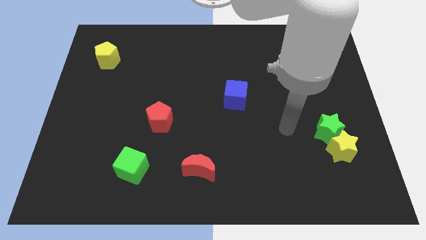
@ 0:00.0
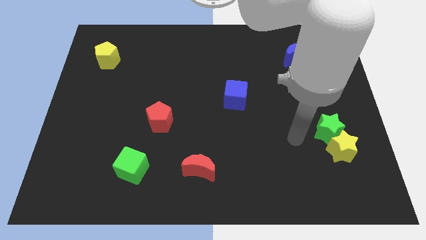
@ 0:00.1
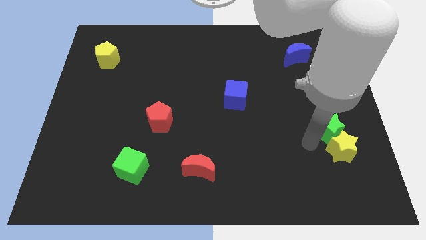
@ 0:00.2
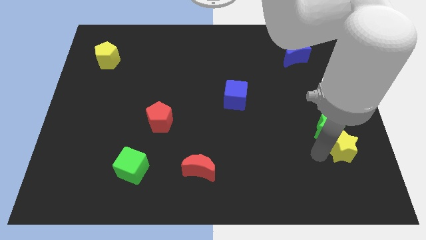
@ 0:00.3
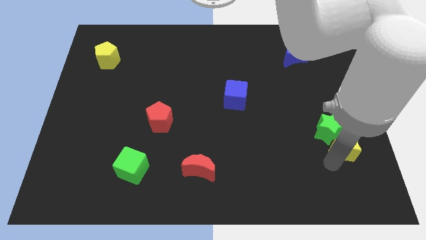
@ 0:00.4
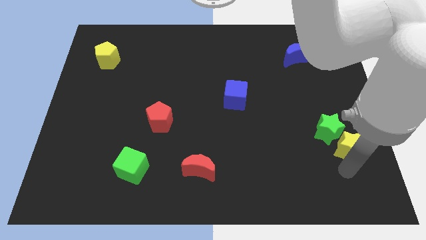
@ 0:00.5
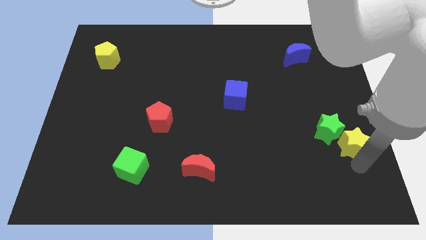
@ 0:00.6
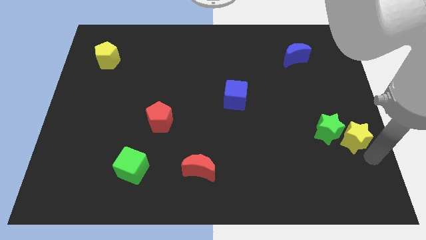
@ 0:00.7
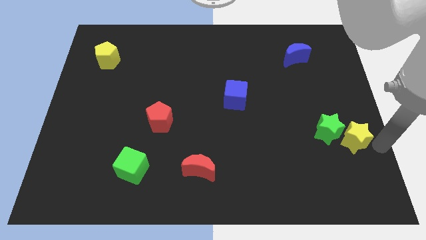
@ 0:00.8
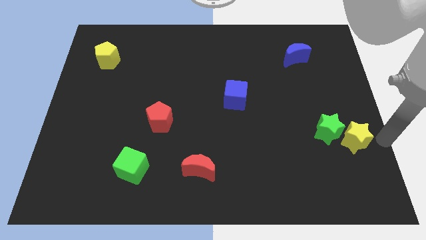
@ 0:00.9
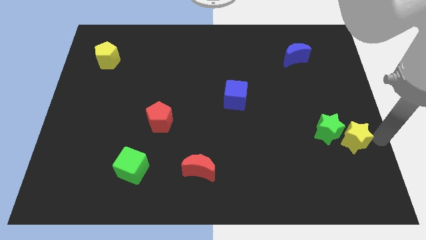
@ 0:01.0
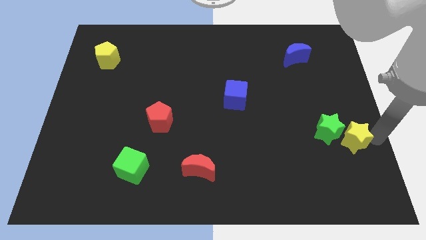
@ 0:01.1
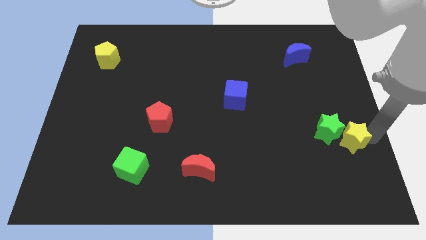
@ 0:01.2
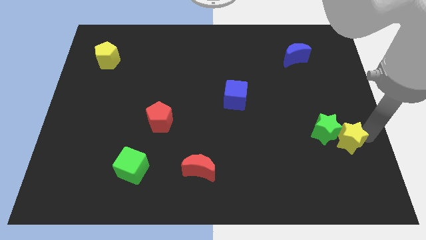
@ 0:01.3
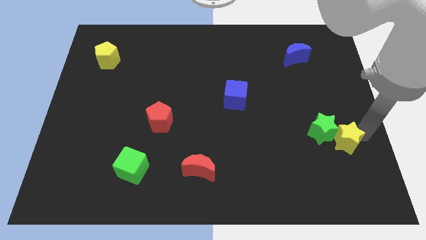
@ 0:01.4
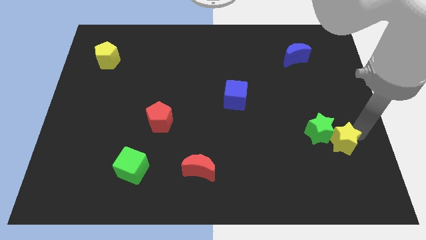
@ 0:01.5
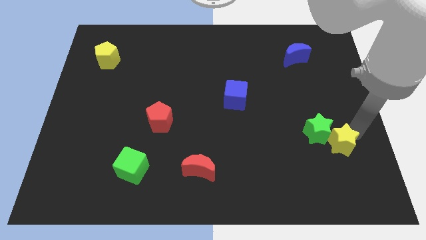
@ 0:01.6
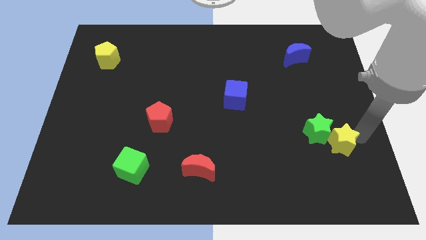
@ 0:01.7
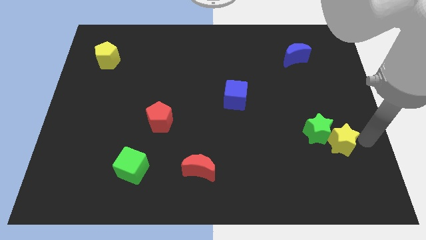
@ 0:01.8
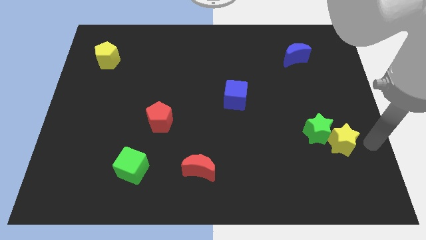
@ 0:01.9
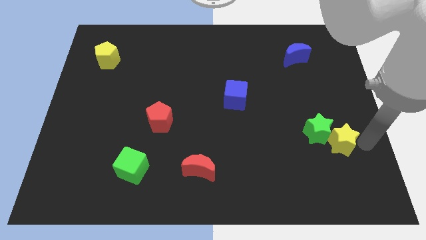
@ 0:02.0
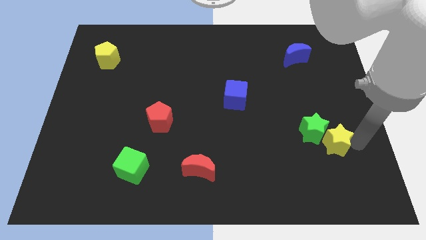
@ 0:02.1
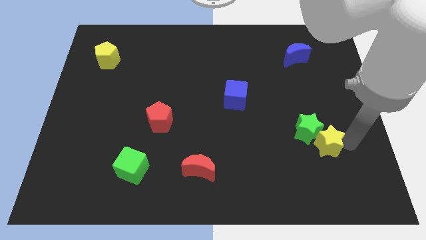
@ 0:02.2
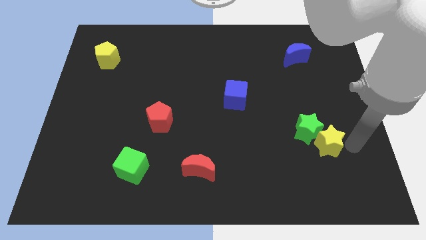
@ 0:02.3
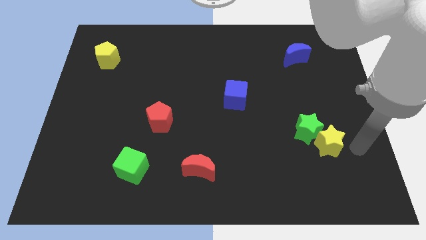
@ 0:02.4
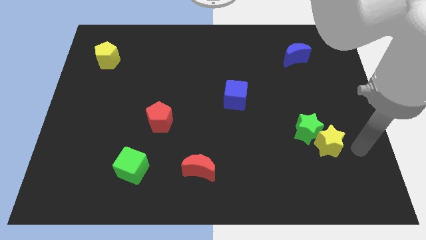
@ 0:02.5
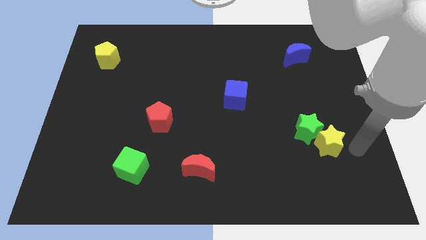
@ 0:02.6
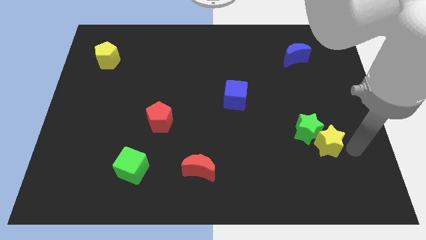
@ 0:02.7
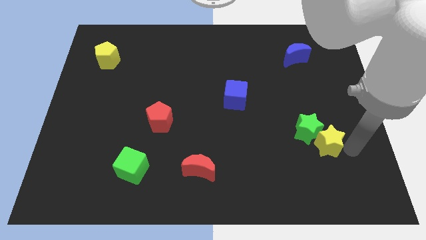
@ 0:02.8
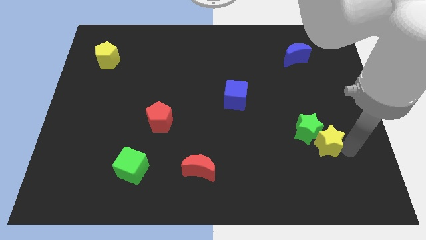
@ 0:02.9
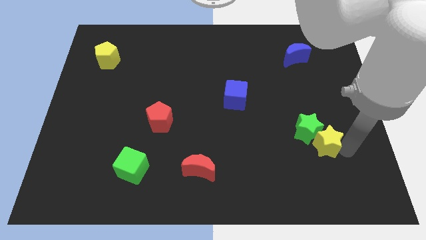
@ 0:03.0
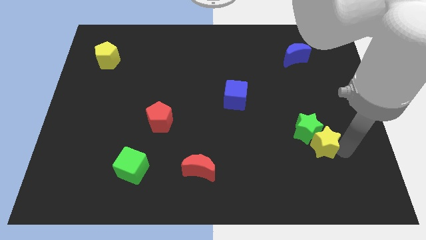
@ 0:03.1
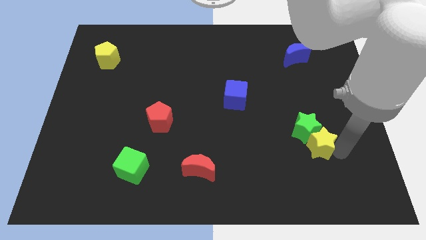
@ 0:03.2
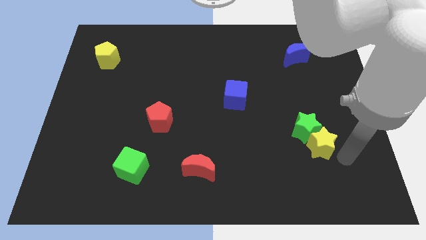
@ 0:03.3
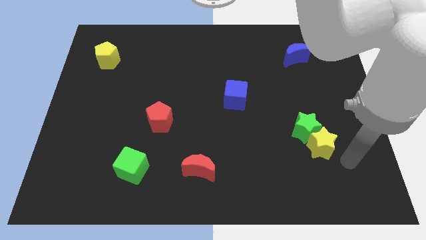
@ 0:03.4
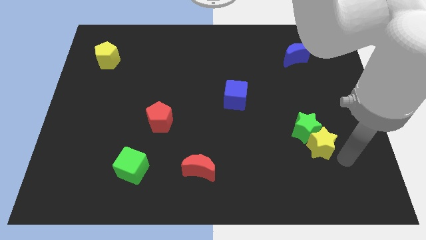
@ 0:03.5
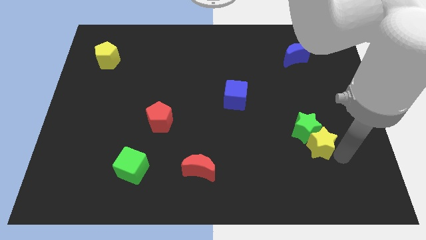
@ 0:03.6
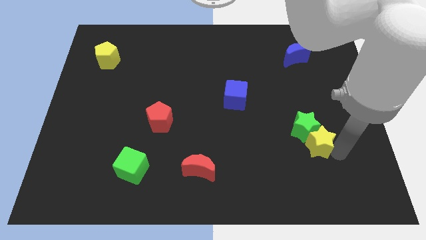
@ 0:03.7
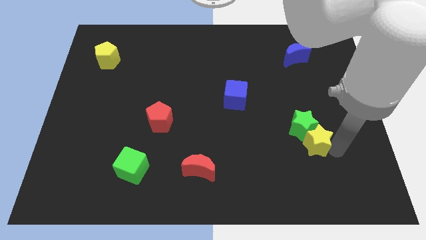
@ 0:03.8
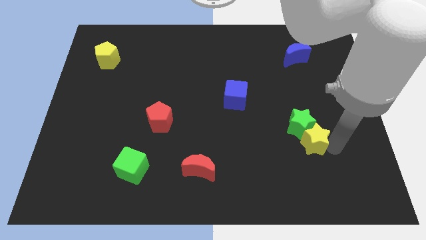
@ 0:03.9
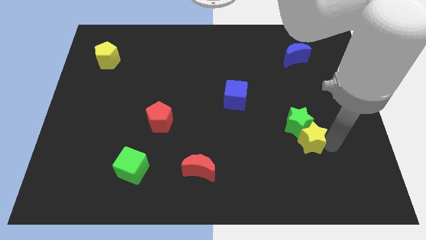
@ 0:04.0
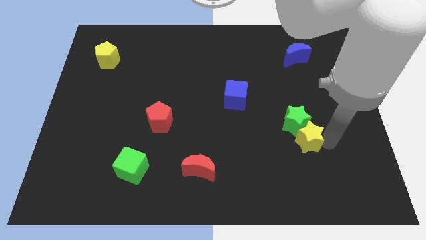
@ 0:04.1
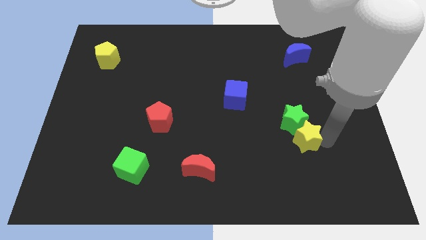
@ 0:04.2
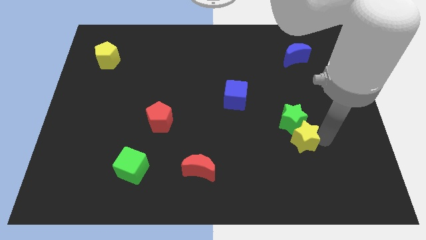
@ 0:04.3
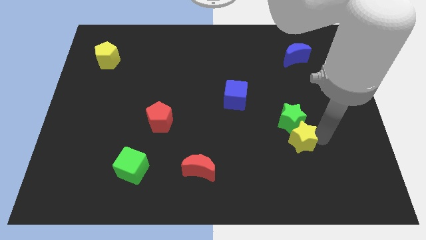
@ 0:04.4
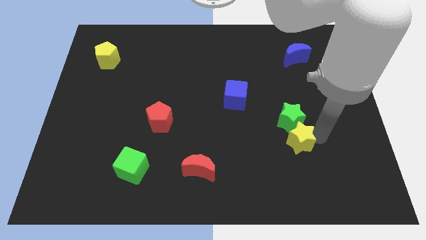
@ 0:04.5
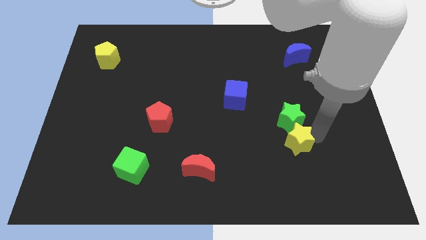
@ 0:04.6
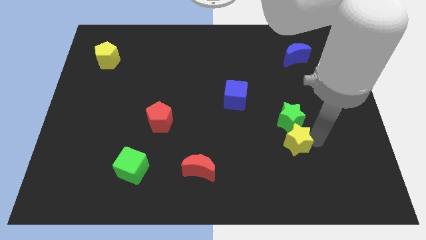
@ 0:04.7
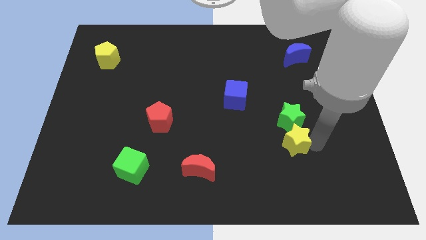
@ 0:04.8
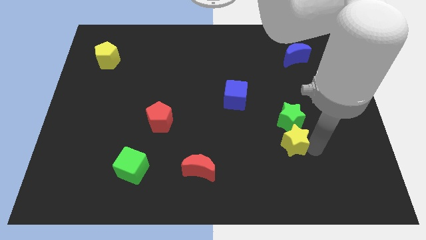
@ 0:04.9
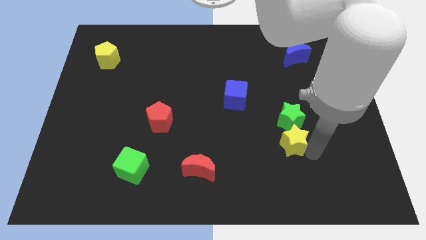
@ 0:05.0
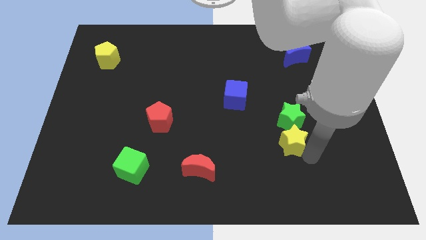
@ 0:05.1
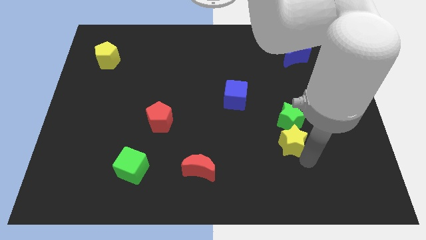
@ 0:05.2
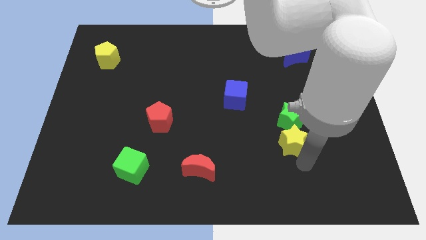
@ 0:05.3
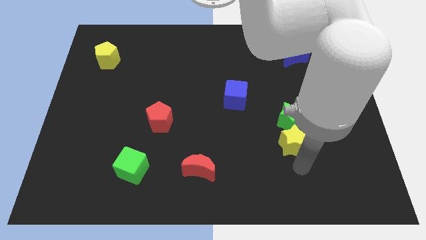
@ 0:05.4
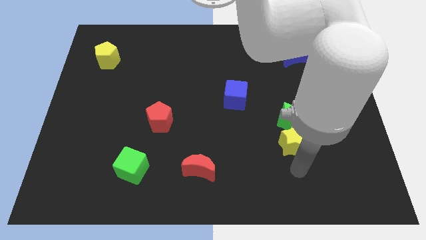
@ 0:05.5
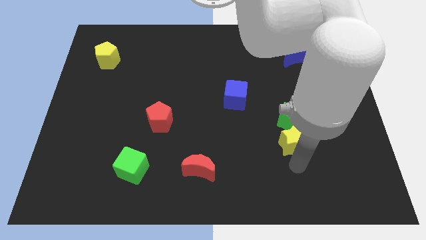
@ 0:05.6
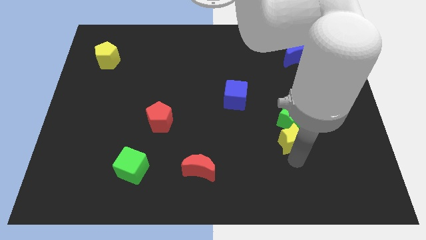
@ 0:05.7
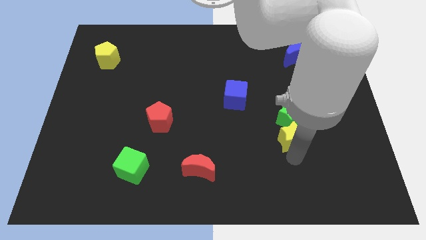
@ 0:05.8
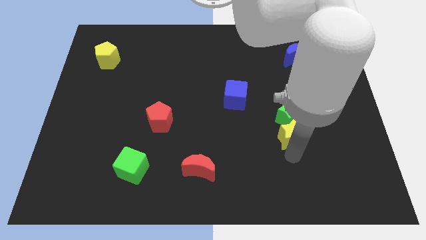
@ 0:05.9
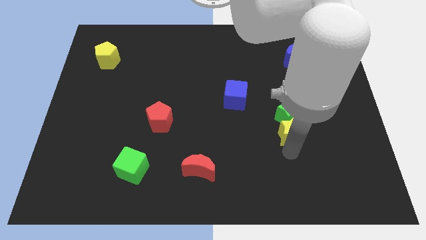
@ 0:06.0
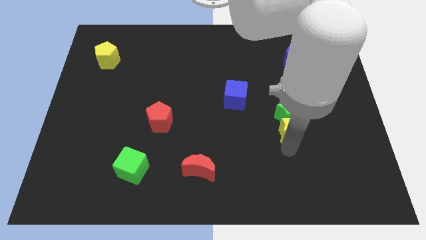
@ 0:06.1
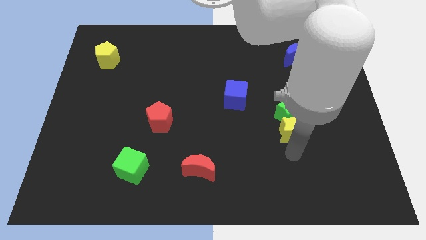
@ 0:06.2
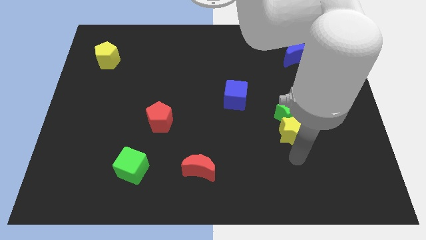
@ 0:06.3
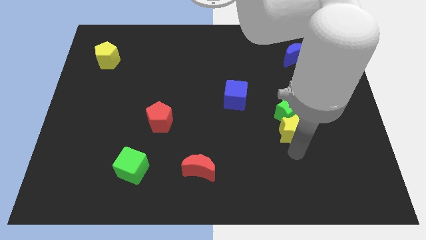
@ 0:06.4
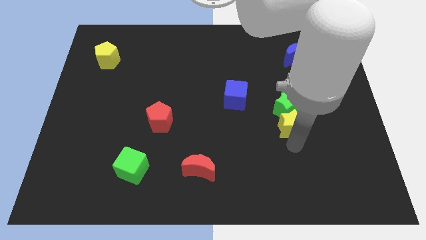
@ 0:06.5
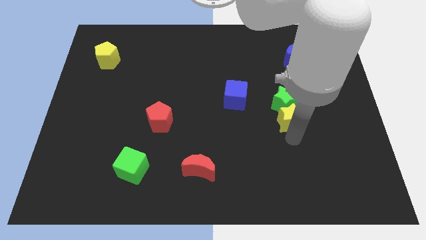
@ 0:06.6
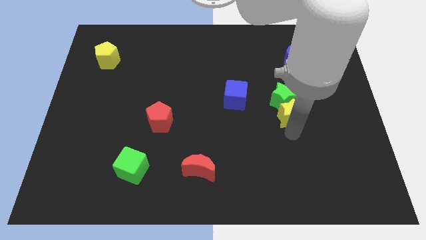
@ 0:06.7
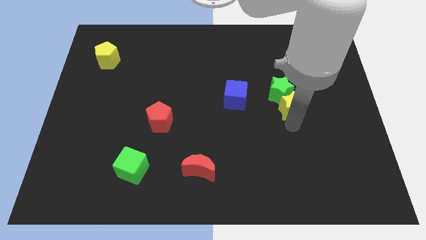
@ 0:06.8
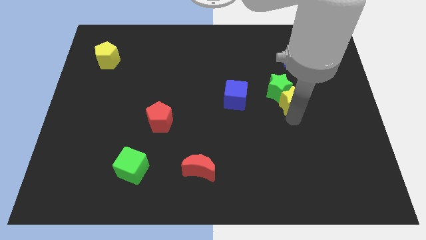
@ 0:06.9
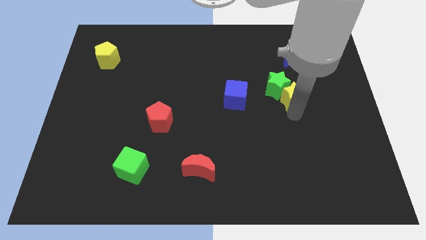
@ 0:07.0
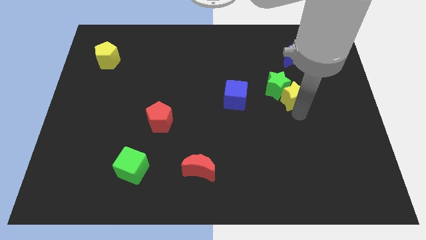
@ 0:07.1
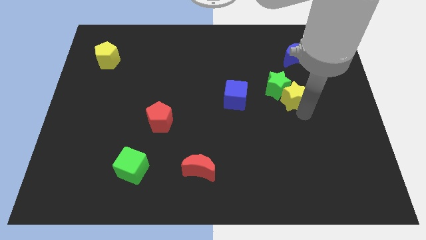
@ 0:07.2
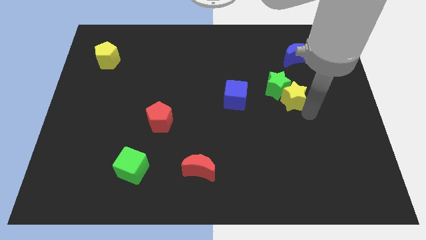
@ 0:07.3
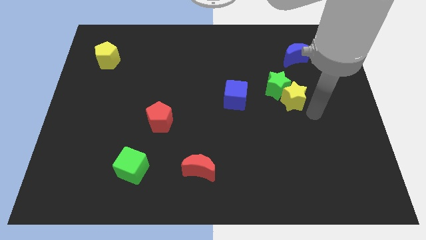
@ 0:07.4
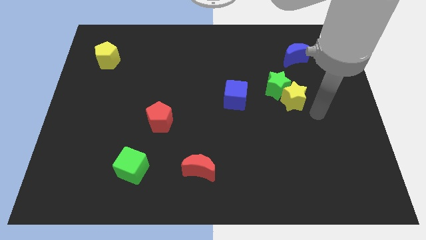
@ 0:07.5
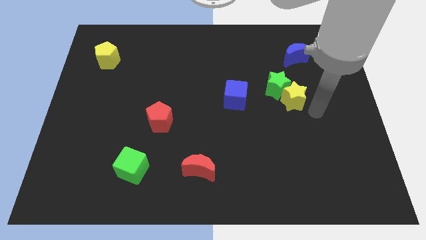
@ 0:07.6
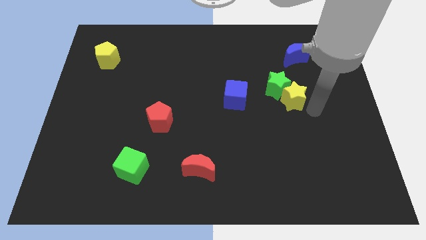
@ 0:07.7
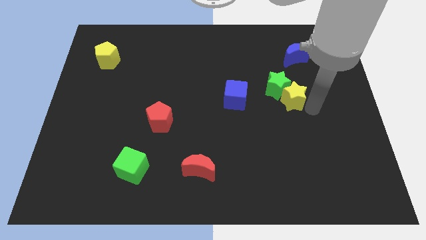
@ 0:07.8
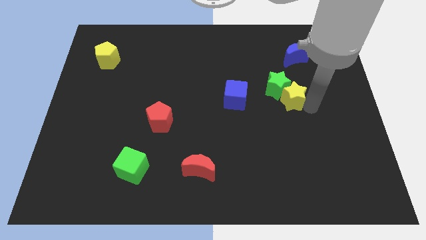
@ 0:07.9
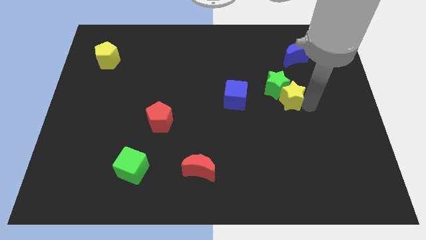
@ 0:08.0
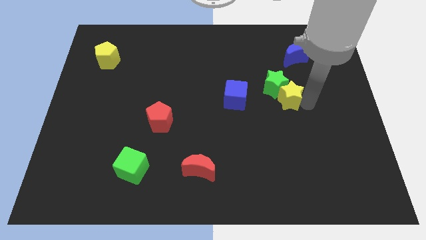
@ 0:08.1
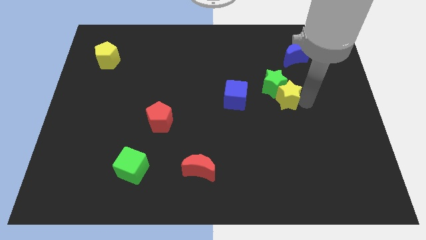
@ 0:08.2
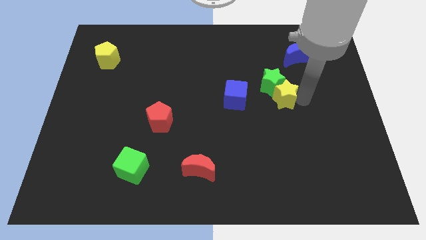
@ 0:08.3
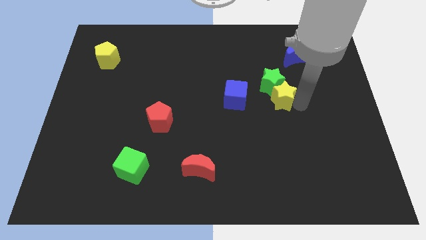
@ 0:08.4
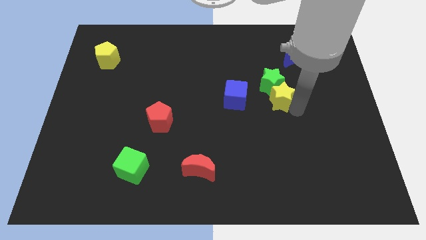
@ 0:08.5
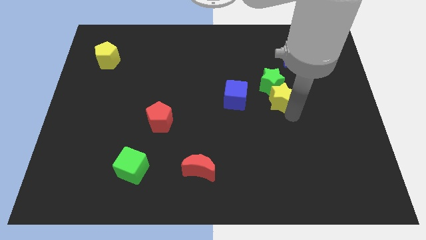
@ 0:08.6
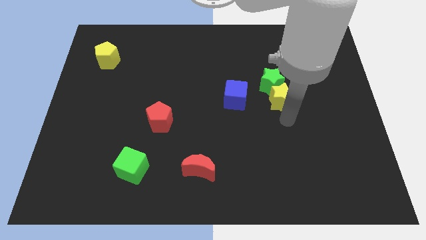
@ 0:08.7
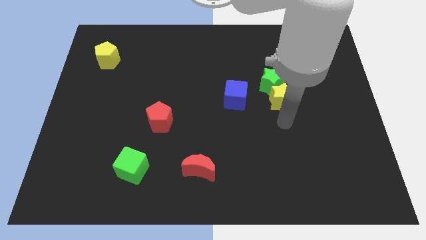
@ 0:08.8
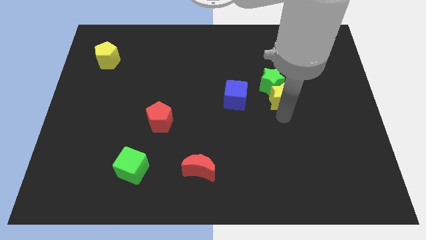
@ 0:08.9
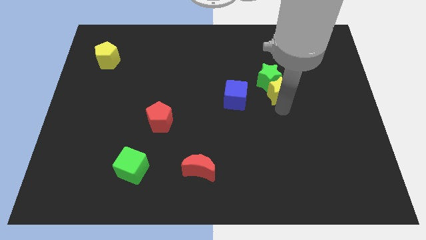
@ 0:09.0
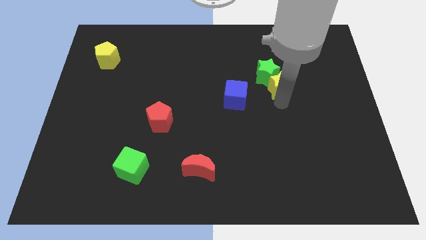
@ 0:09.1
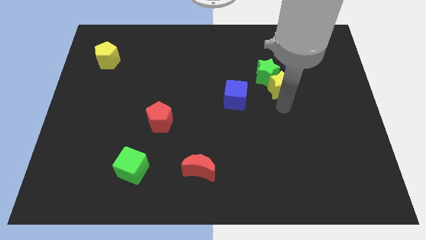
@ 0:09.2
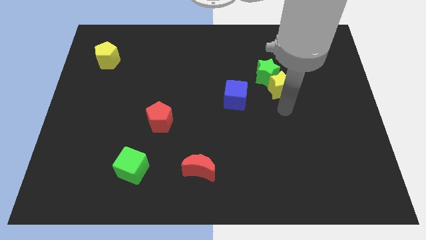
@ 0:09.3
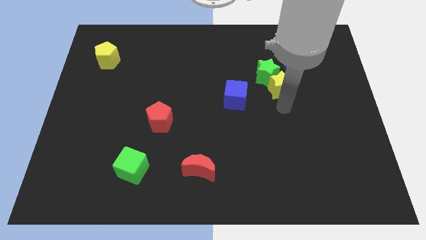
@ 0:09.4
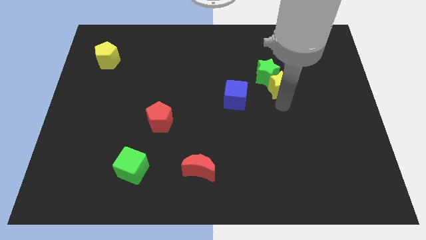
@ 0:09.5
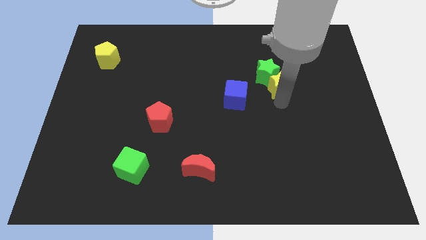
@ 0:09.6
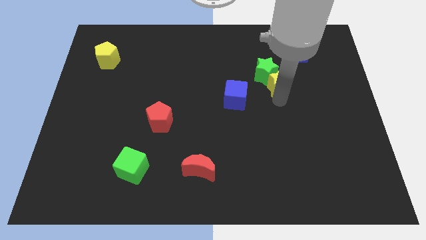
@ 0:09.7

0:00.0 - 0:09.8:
put the yellow star to the bottom left of the blue moon
